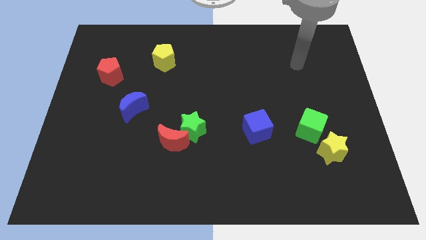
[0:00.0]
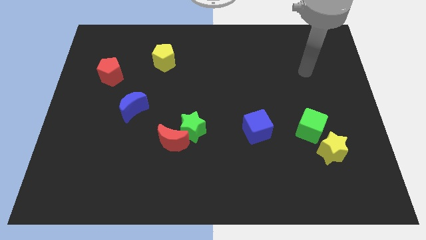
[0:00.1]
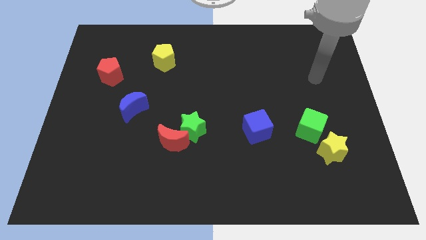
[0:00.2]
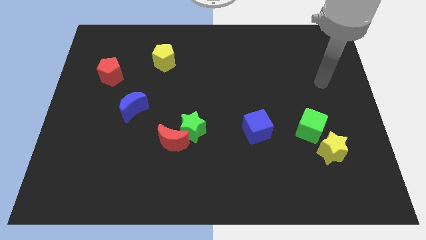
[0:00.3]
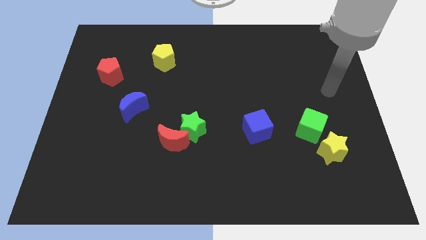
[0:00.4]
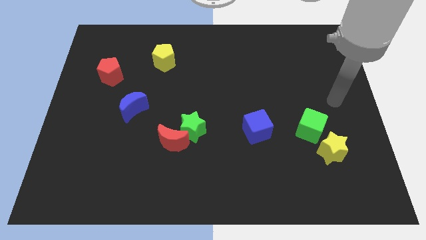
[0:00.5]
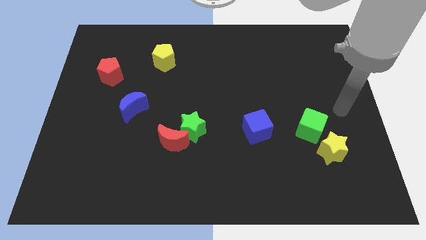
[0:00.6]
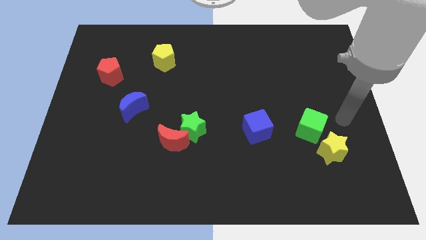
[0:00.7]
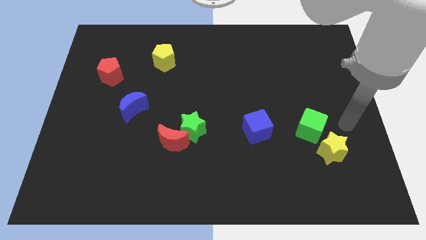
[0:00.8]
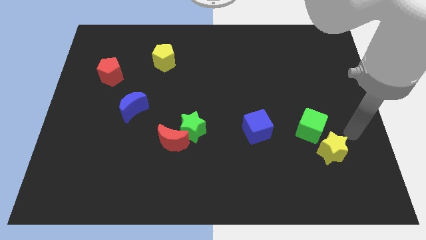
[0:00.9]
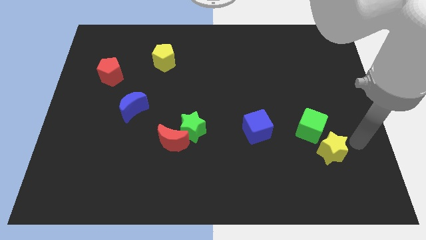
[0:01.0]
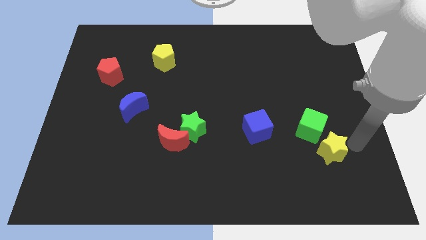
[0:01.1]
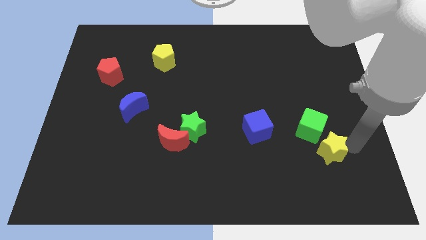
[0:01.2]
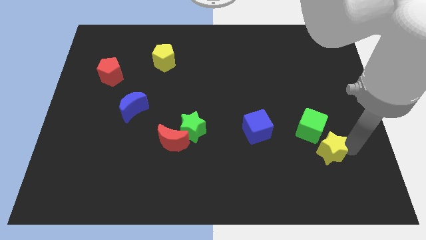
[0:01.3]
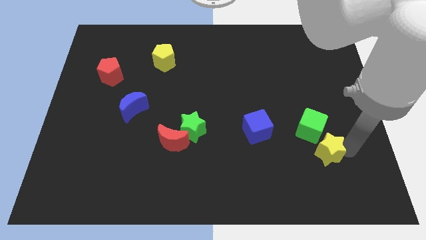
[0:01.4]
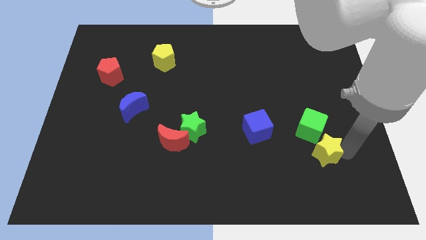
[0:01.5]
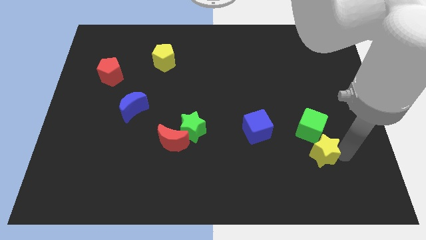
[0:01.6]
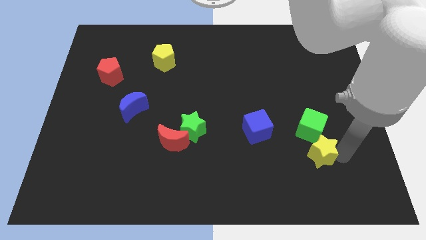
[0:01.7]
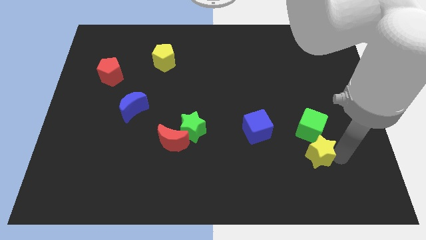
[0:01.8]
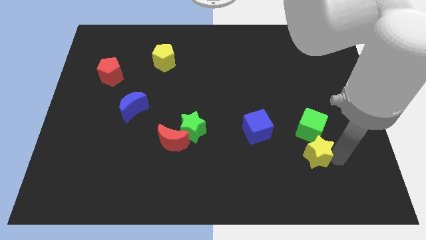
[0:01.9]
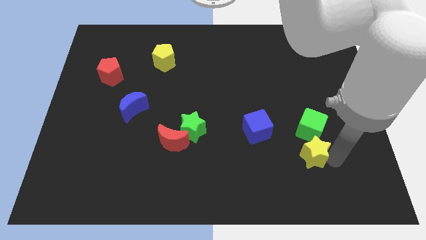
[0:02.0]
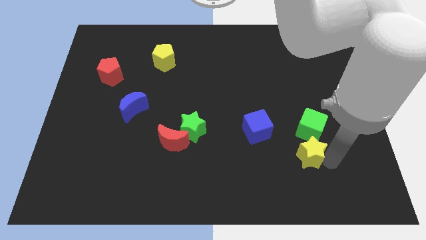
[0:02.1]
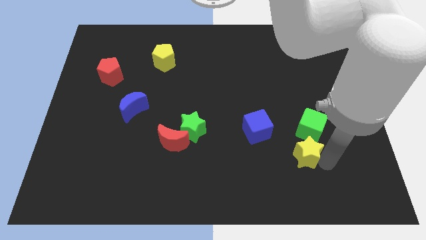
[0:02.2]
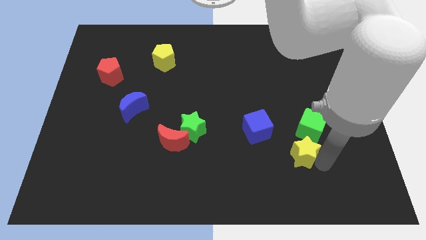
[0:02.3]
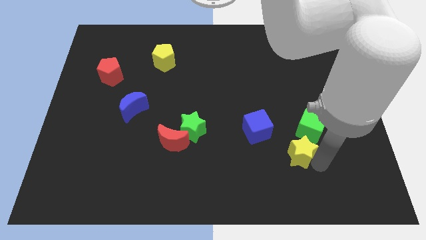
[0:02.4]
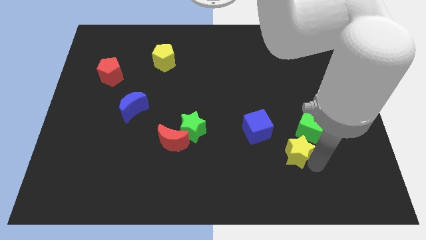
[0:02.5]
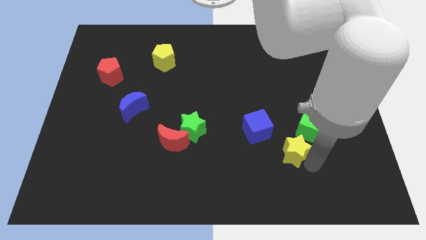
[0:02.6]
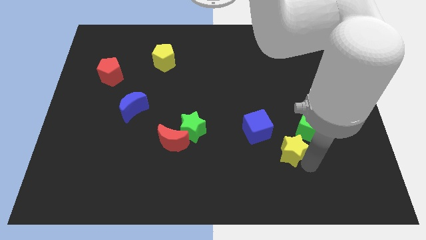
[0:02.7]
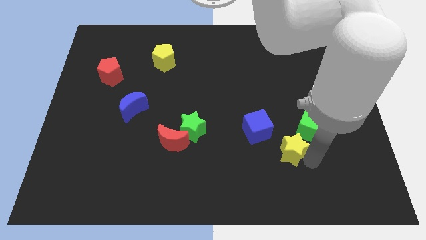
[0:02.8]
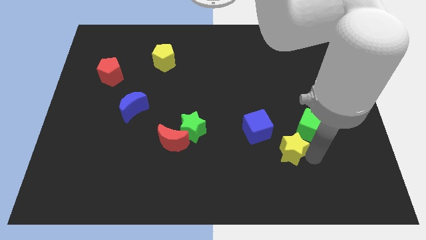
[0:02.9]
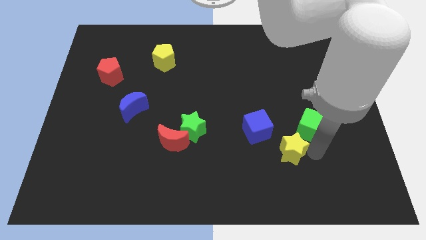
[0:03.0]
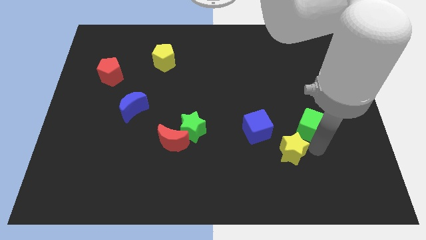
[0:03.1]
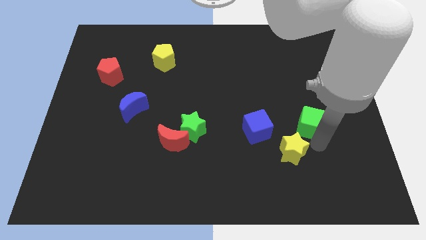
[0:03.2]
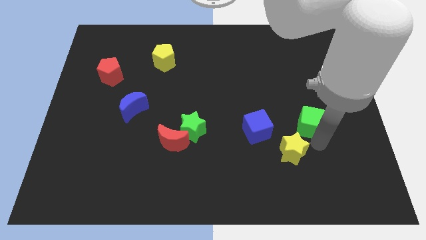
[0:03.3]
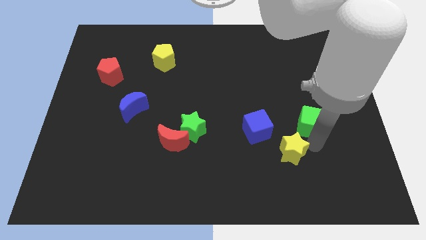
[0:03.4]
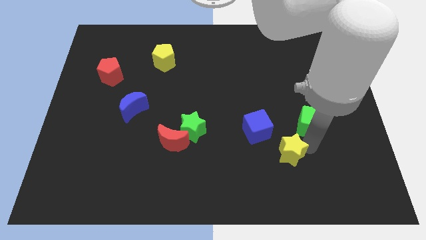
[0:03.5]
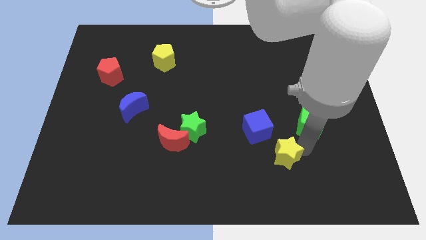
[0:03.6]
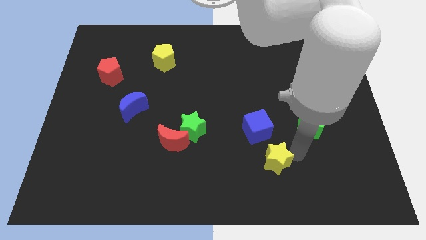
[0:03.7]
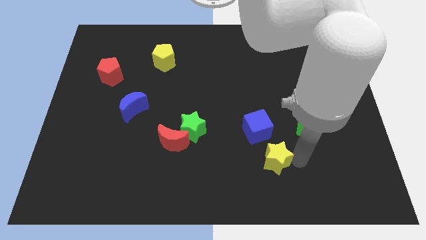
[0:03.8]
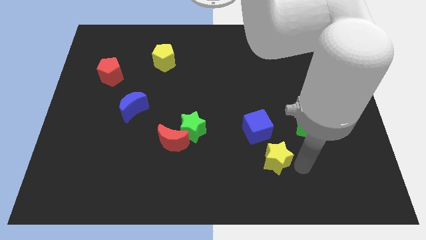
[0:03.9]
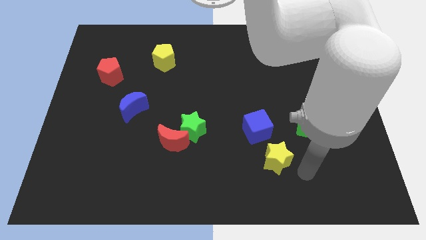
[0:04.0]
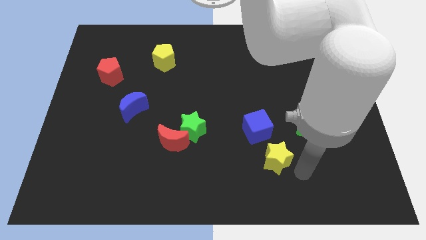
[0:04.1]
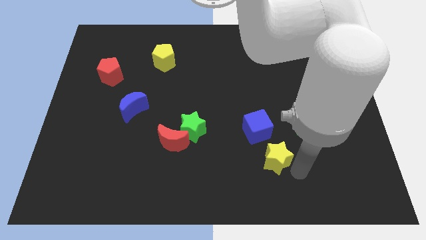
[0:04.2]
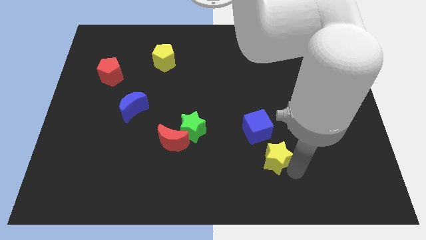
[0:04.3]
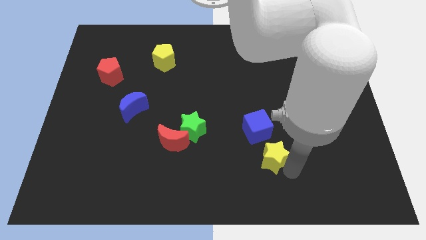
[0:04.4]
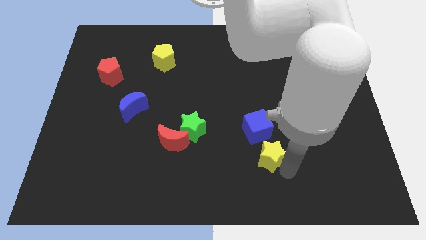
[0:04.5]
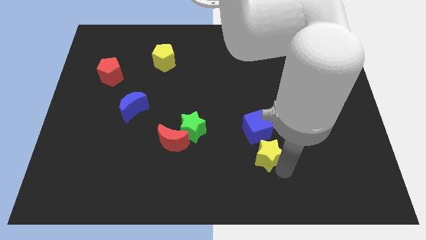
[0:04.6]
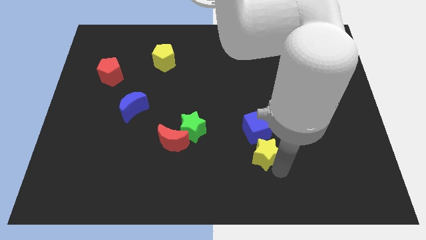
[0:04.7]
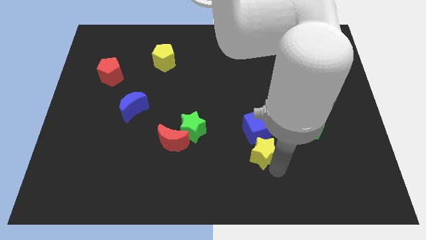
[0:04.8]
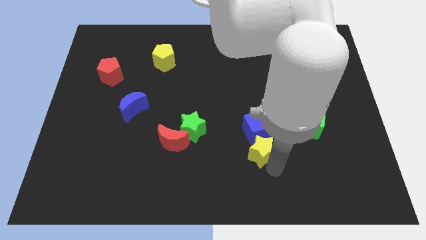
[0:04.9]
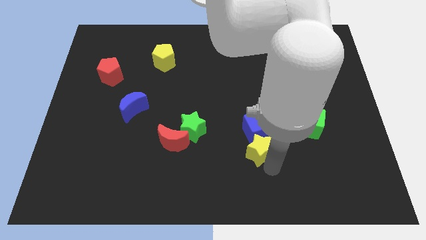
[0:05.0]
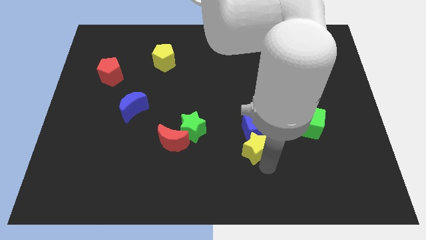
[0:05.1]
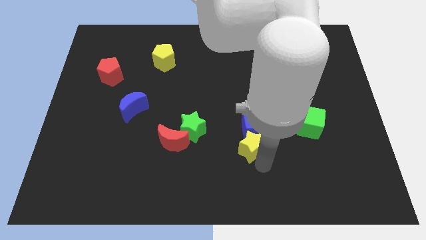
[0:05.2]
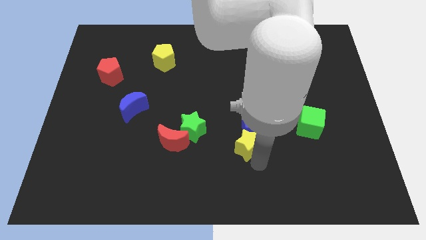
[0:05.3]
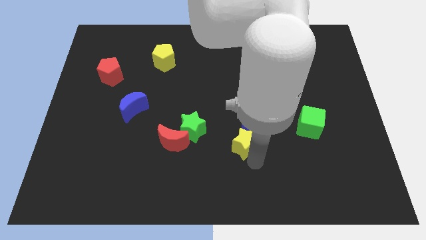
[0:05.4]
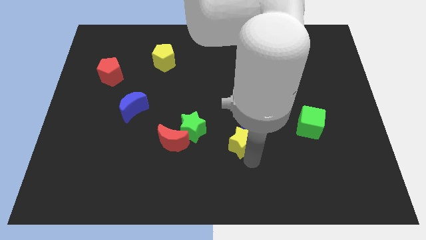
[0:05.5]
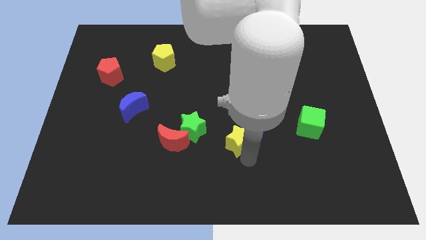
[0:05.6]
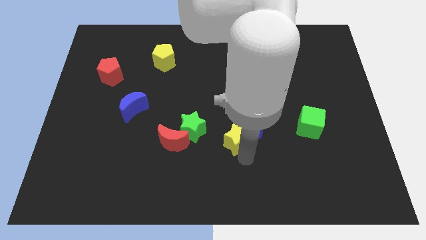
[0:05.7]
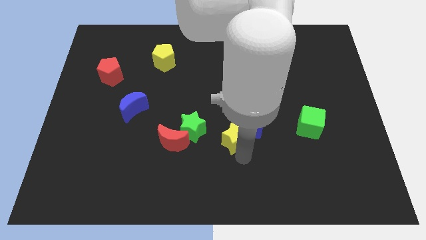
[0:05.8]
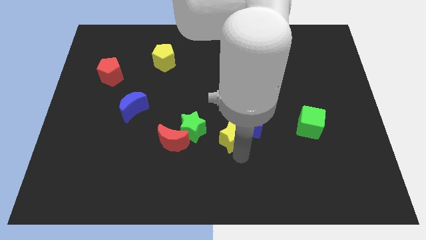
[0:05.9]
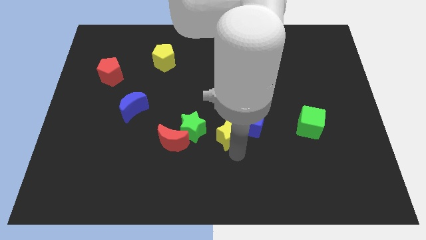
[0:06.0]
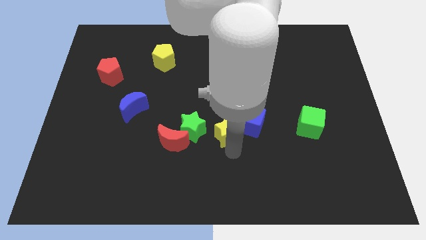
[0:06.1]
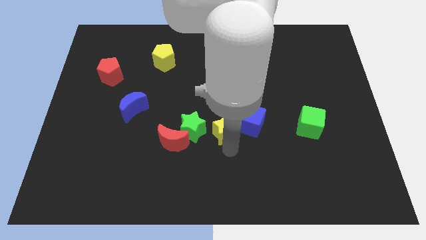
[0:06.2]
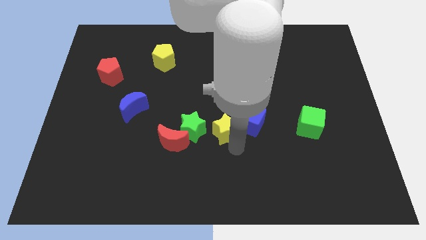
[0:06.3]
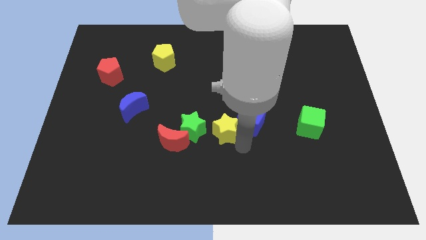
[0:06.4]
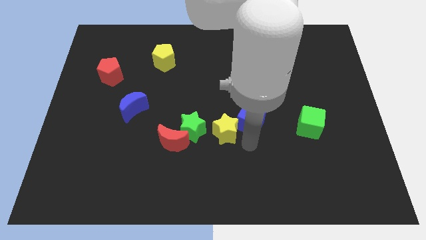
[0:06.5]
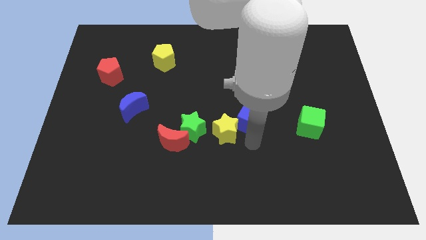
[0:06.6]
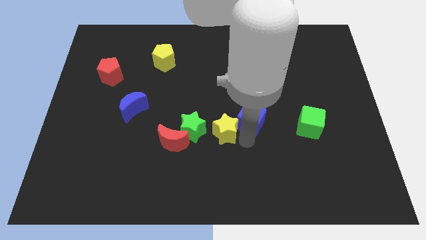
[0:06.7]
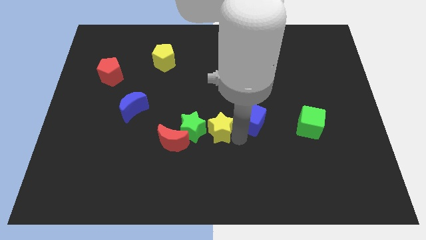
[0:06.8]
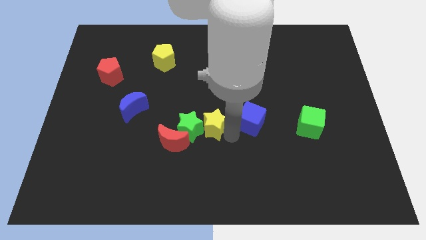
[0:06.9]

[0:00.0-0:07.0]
move the yellow star to the top right side of the red moon

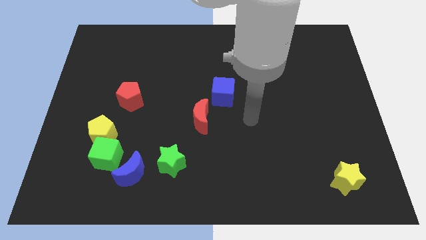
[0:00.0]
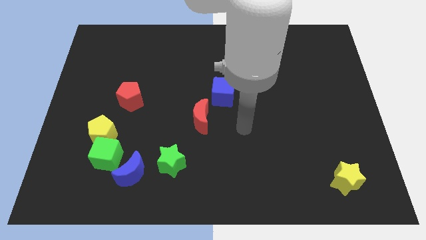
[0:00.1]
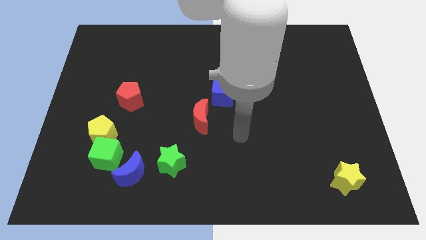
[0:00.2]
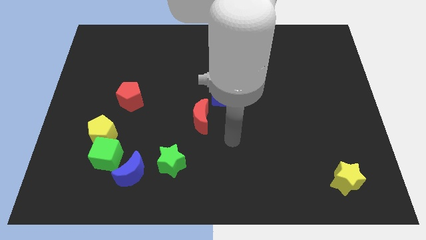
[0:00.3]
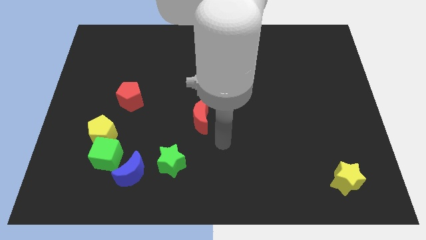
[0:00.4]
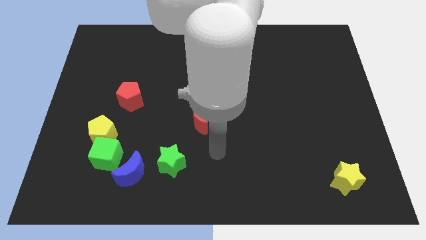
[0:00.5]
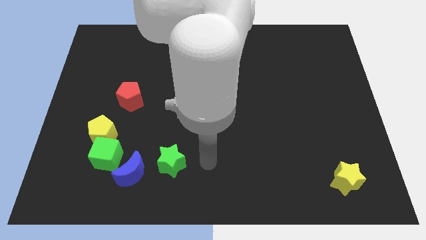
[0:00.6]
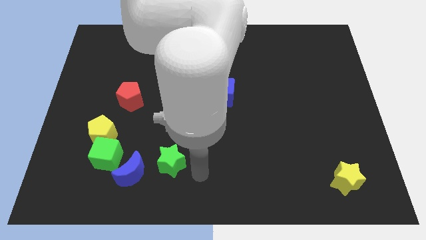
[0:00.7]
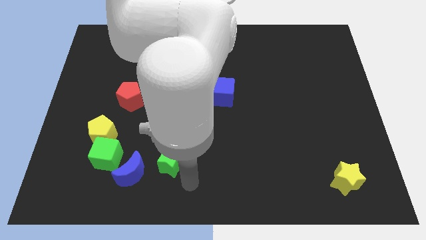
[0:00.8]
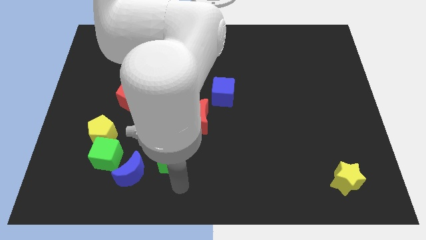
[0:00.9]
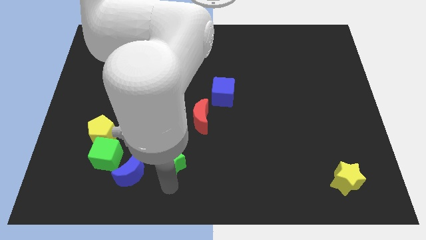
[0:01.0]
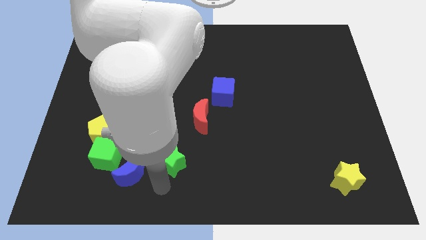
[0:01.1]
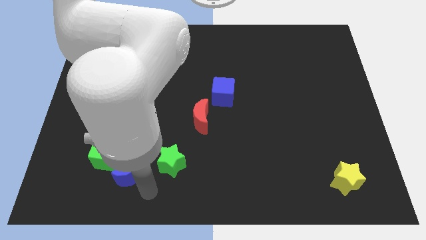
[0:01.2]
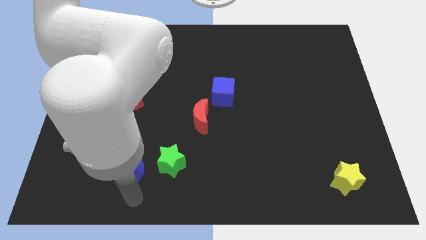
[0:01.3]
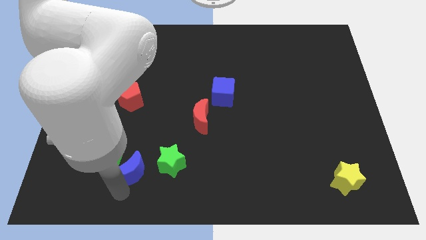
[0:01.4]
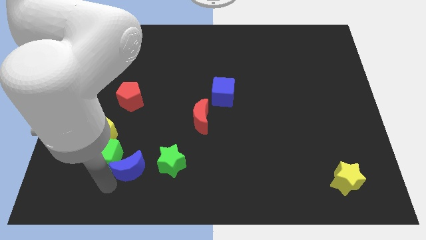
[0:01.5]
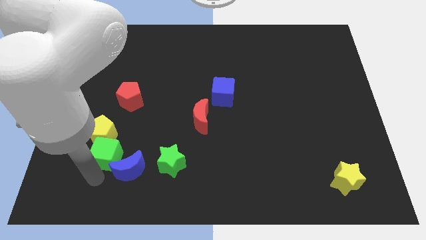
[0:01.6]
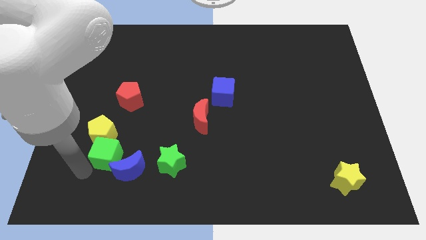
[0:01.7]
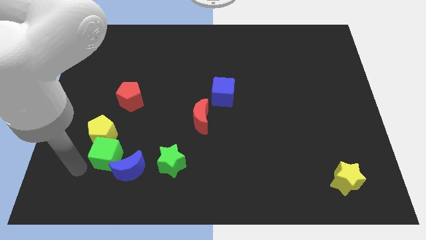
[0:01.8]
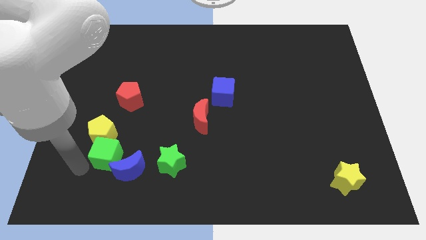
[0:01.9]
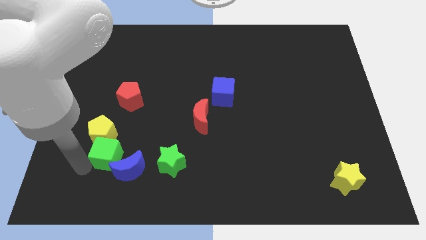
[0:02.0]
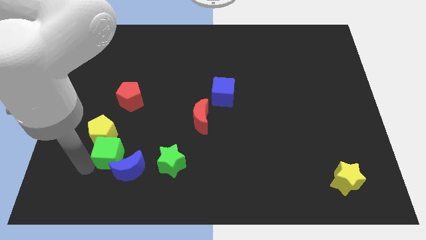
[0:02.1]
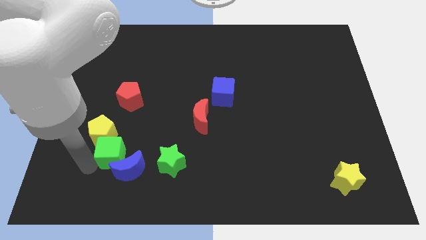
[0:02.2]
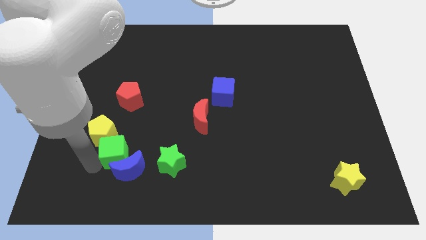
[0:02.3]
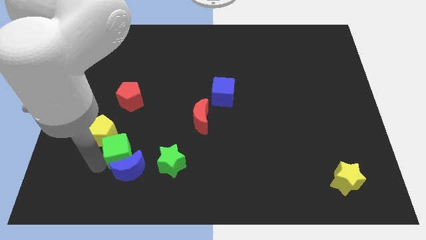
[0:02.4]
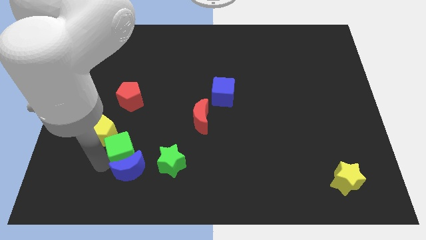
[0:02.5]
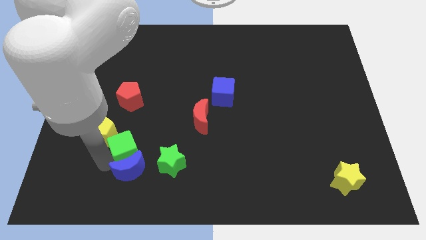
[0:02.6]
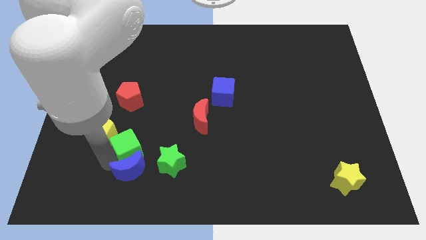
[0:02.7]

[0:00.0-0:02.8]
push the green cube diagonally up and to the left of the green star
